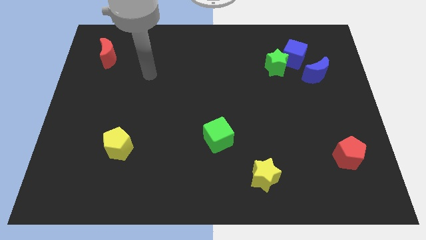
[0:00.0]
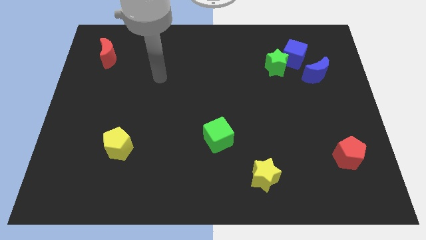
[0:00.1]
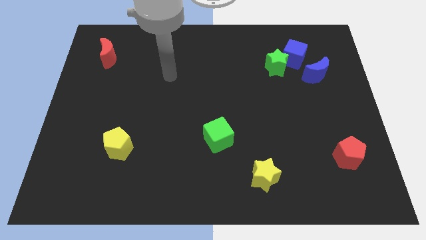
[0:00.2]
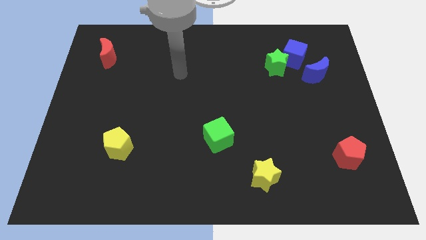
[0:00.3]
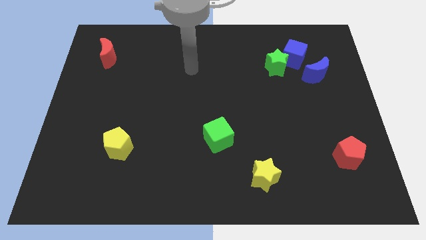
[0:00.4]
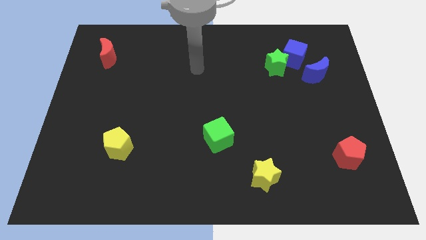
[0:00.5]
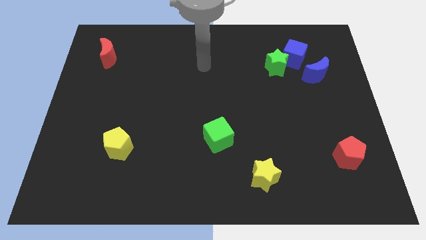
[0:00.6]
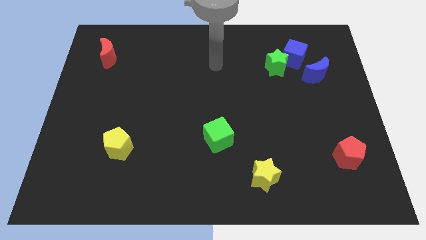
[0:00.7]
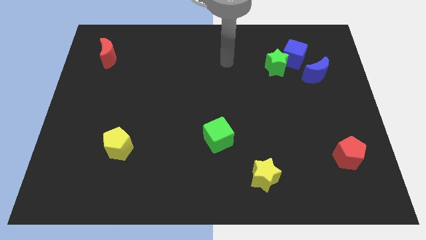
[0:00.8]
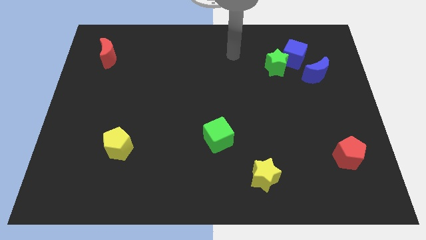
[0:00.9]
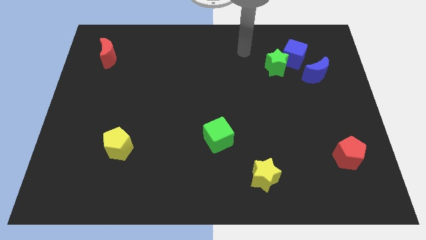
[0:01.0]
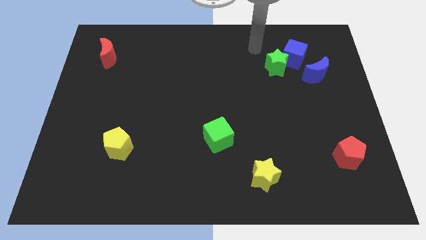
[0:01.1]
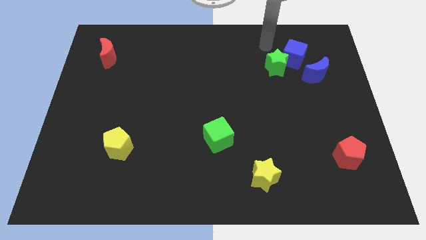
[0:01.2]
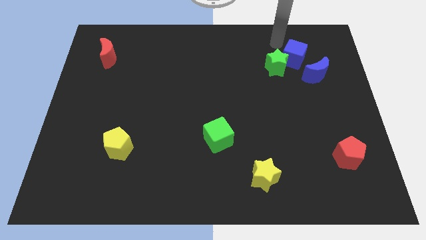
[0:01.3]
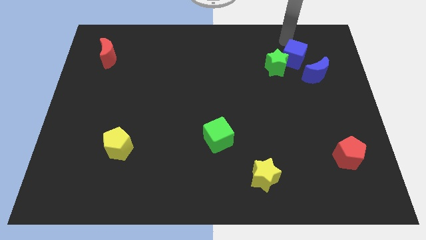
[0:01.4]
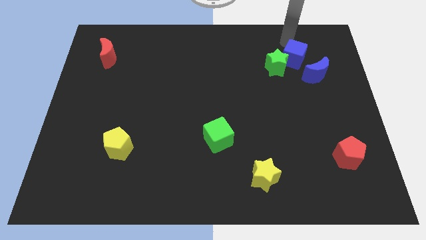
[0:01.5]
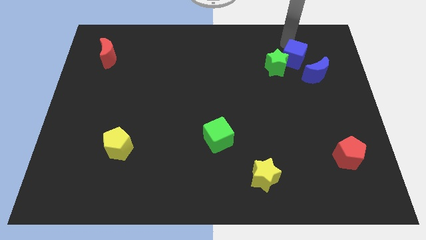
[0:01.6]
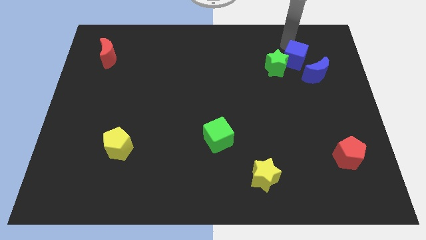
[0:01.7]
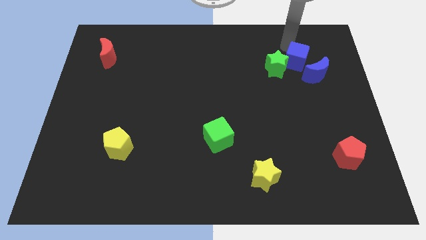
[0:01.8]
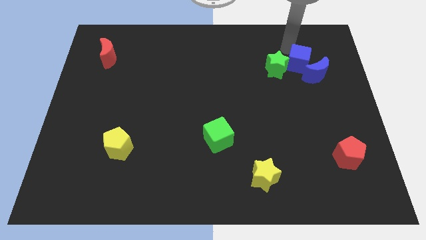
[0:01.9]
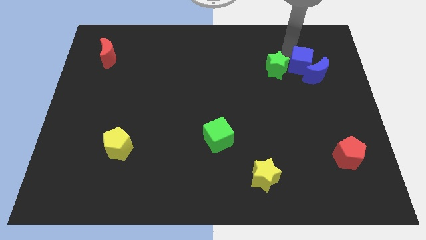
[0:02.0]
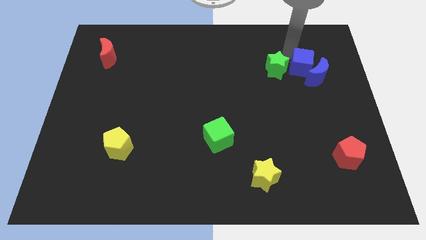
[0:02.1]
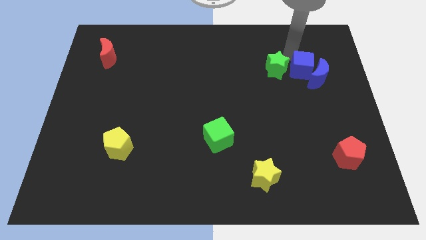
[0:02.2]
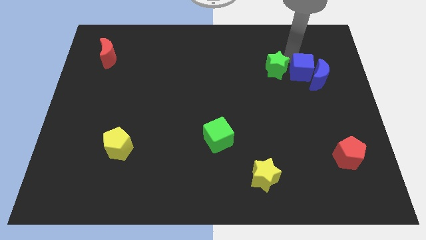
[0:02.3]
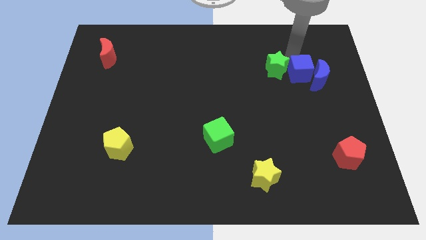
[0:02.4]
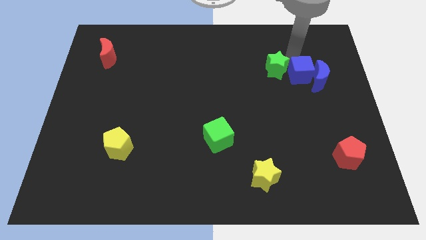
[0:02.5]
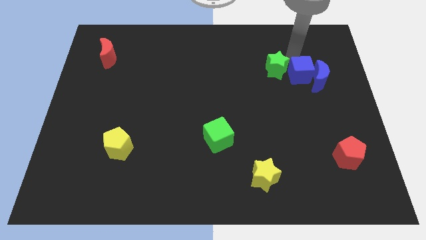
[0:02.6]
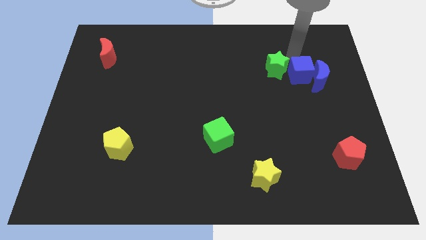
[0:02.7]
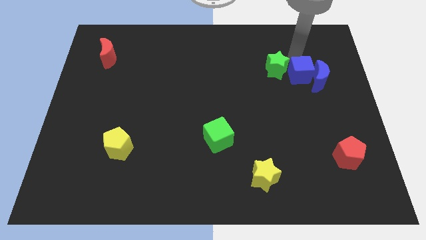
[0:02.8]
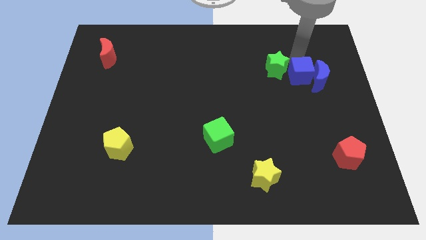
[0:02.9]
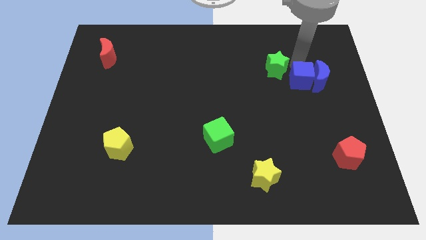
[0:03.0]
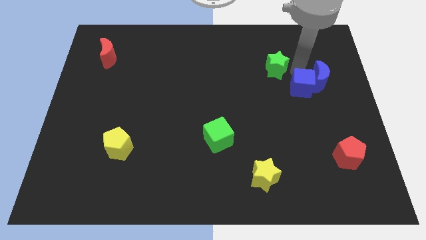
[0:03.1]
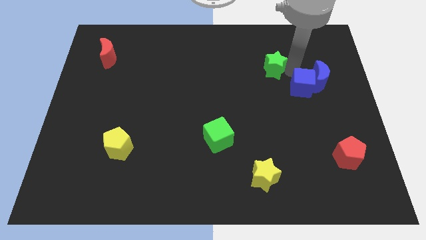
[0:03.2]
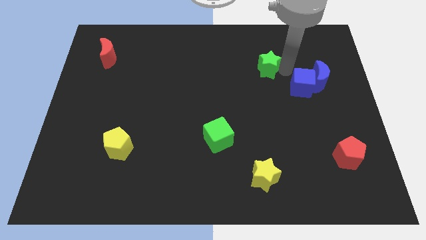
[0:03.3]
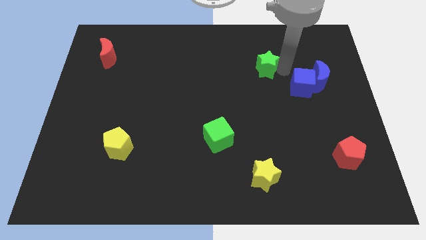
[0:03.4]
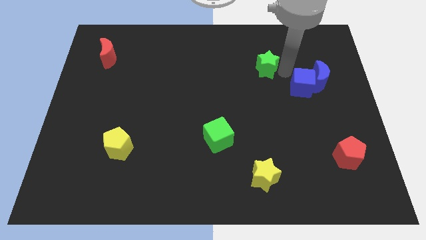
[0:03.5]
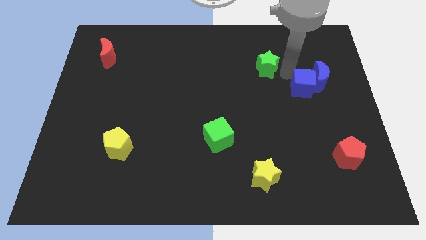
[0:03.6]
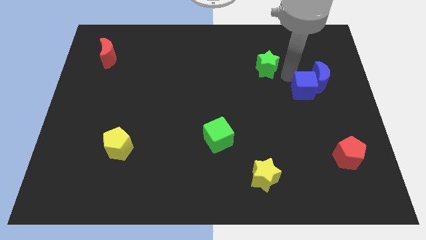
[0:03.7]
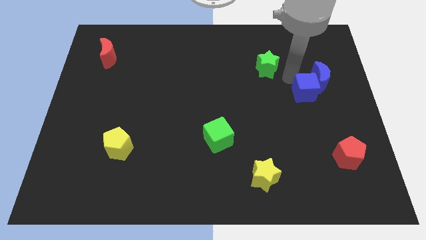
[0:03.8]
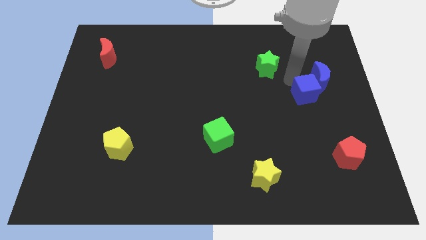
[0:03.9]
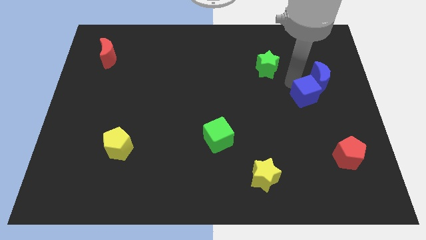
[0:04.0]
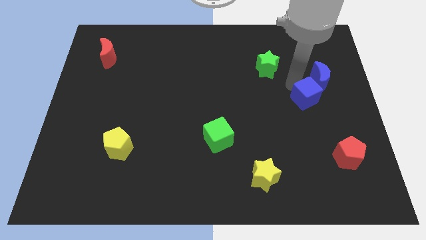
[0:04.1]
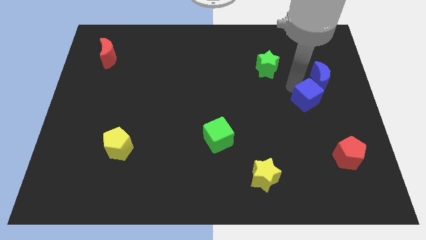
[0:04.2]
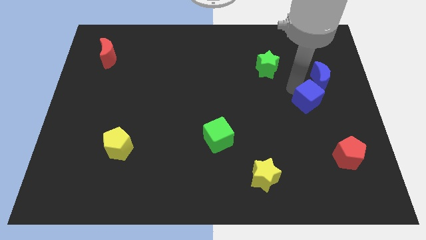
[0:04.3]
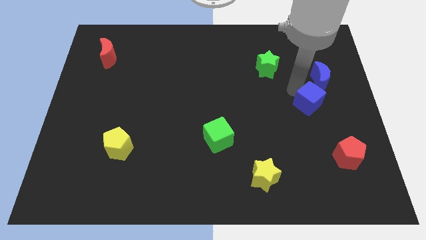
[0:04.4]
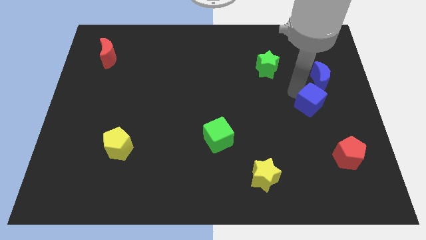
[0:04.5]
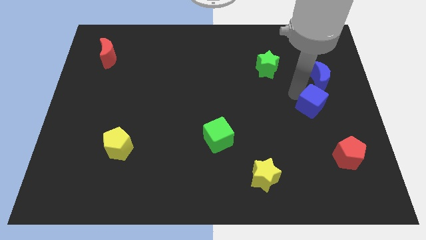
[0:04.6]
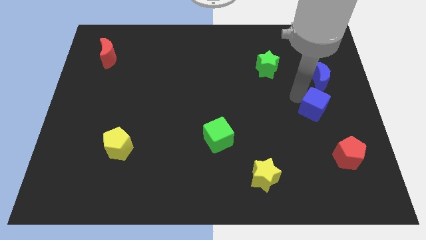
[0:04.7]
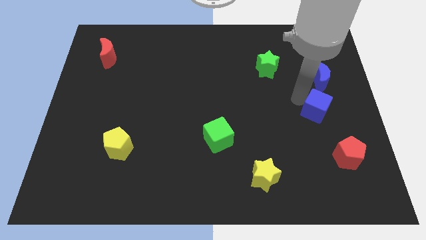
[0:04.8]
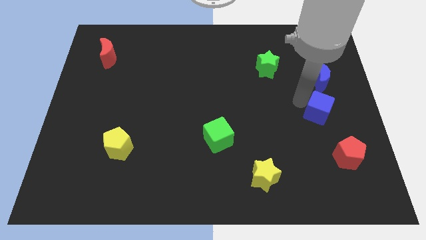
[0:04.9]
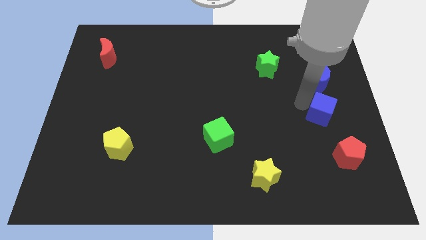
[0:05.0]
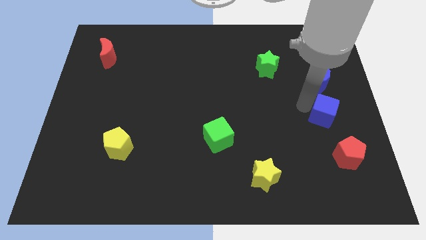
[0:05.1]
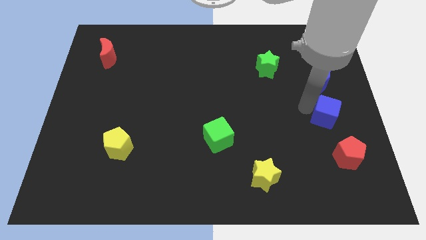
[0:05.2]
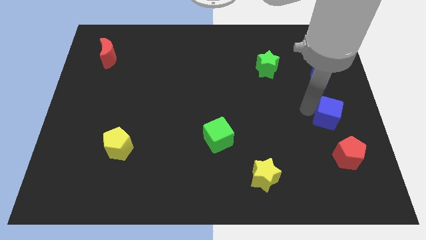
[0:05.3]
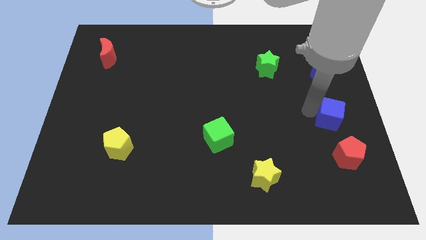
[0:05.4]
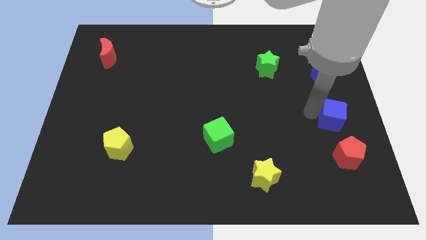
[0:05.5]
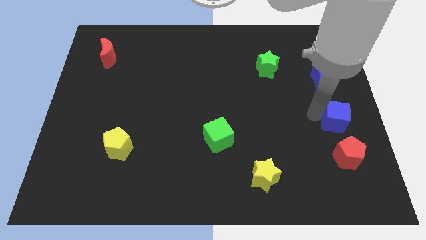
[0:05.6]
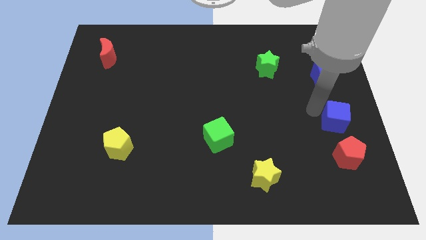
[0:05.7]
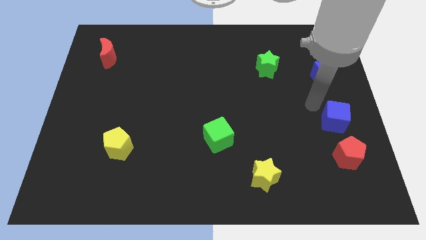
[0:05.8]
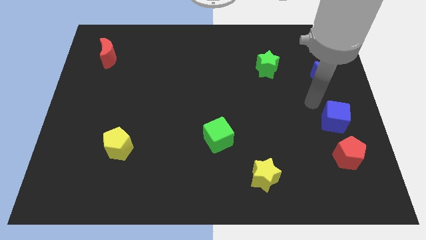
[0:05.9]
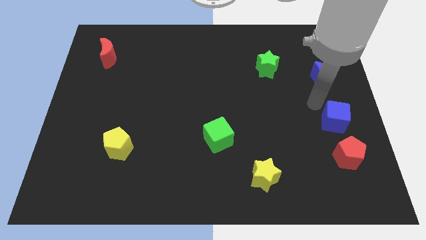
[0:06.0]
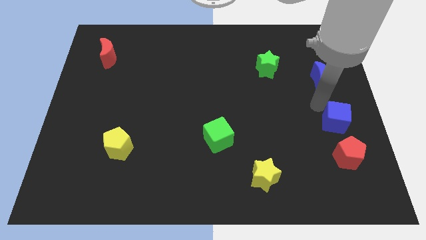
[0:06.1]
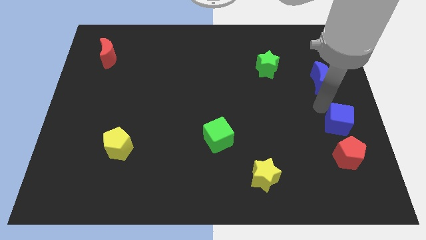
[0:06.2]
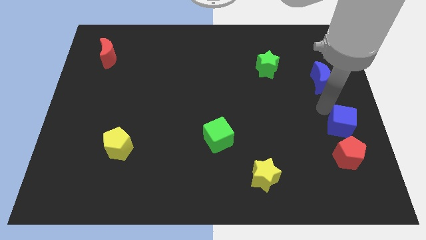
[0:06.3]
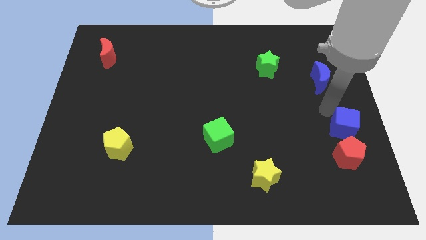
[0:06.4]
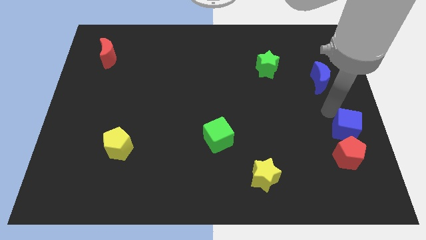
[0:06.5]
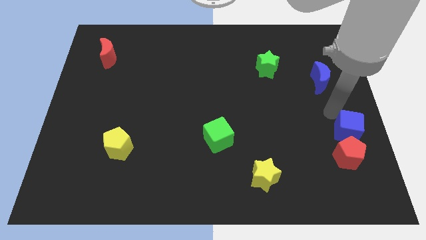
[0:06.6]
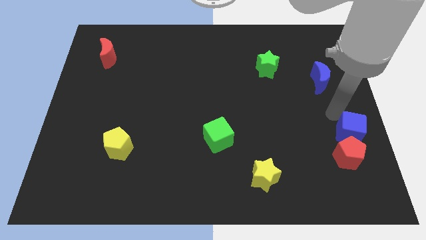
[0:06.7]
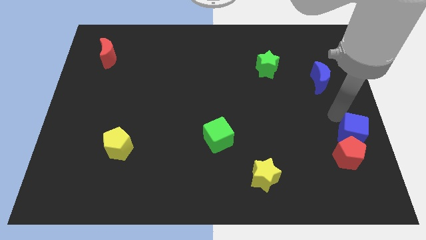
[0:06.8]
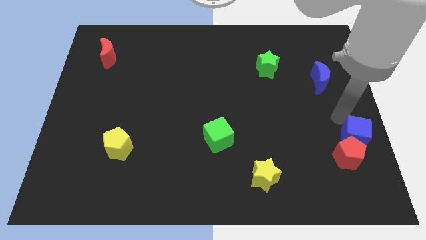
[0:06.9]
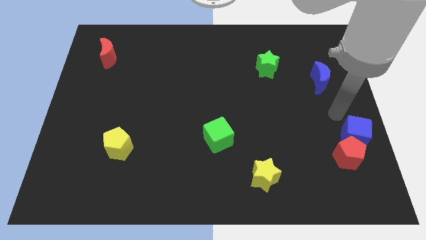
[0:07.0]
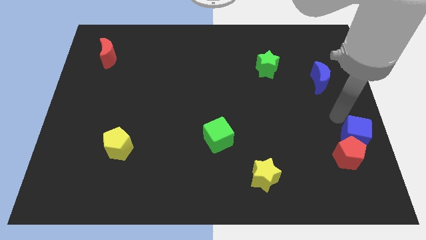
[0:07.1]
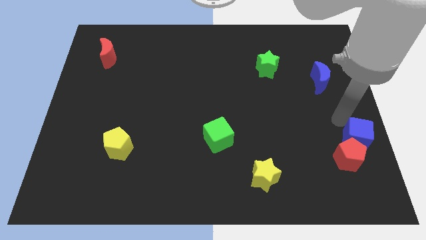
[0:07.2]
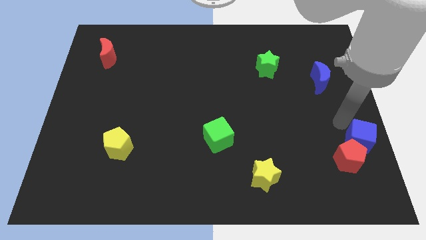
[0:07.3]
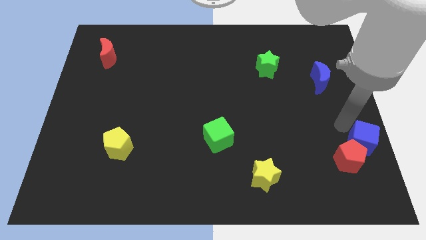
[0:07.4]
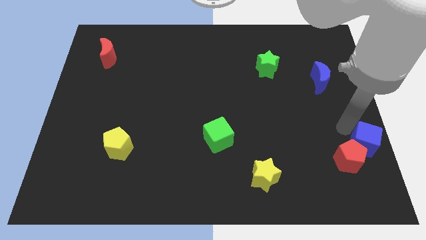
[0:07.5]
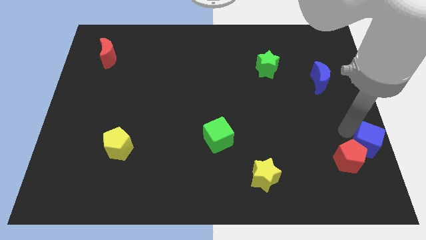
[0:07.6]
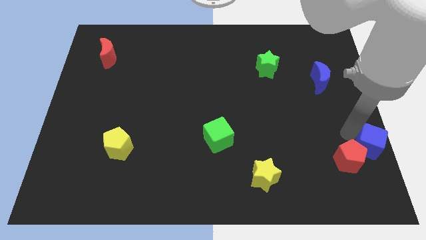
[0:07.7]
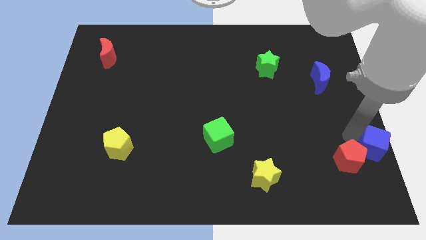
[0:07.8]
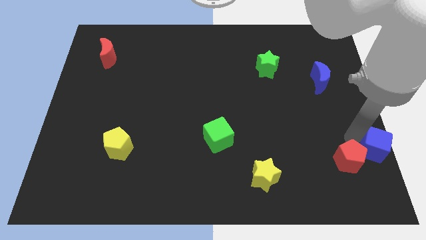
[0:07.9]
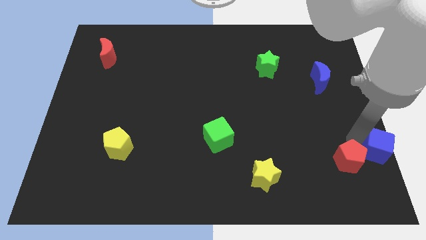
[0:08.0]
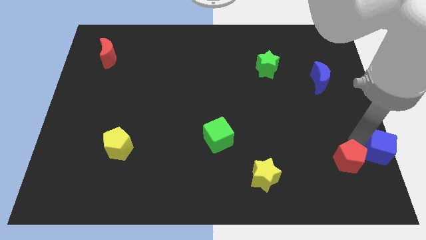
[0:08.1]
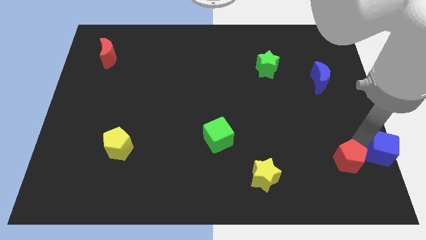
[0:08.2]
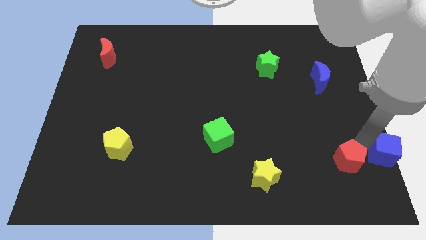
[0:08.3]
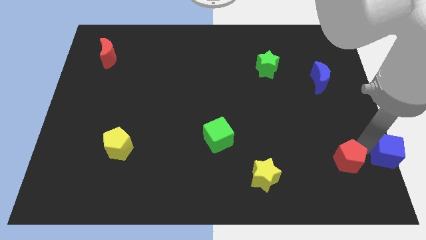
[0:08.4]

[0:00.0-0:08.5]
slide the blue cube to the bottom right of the board
